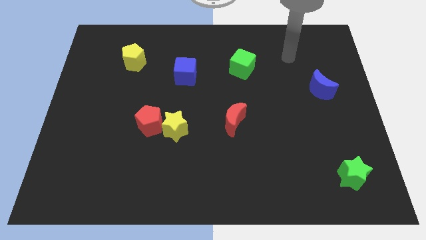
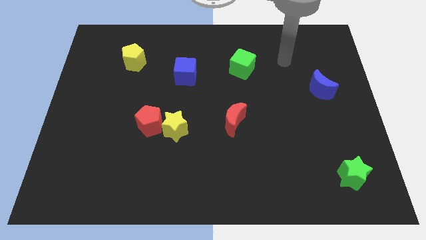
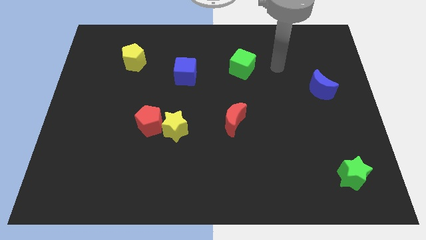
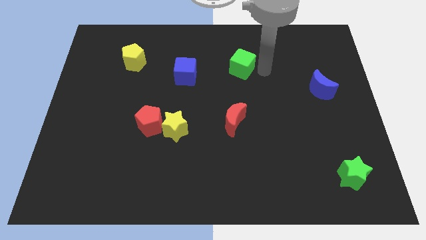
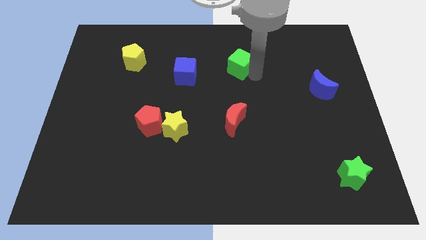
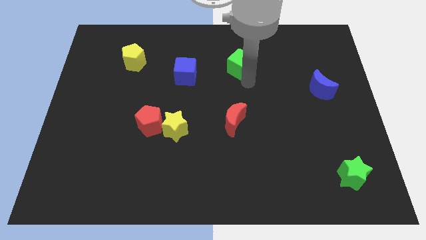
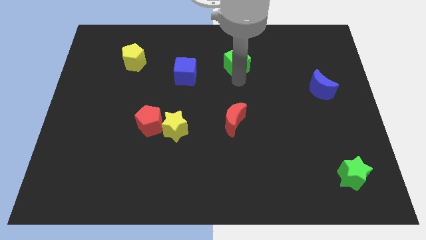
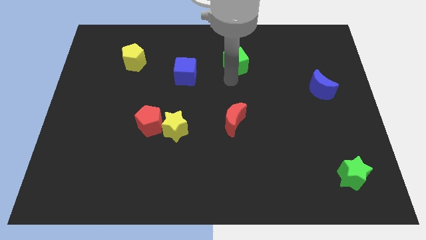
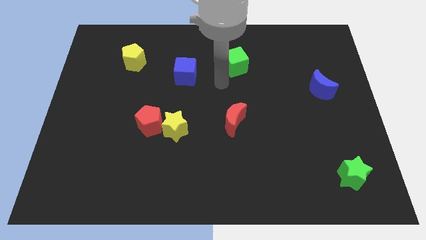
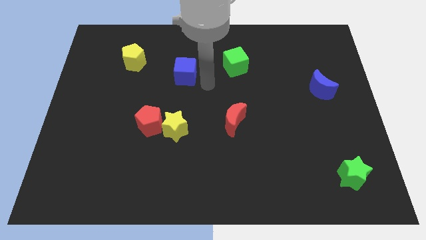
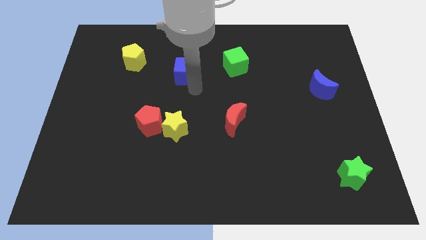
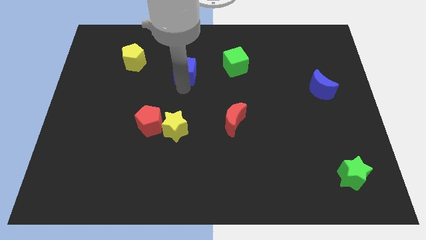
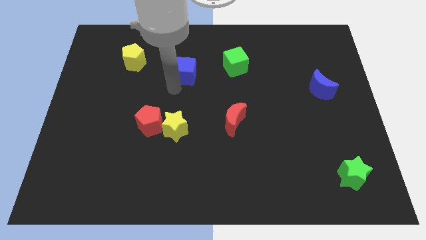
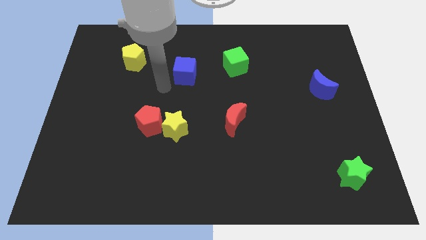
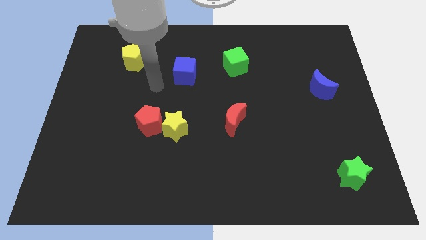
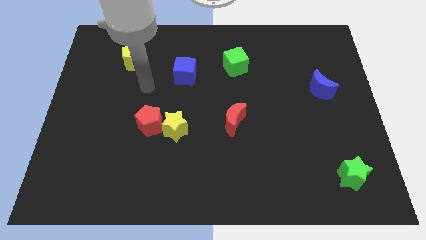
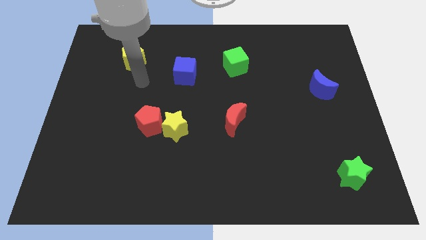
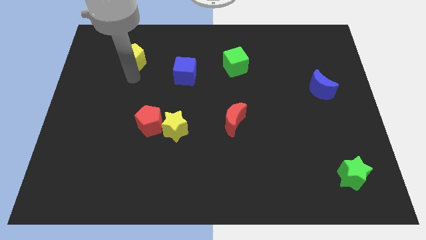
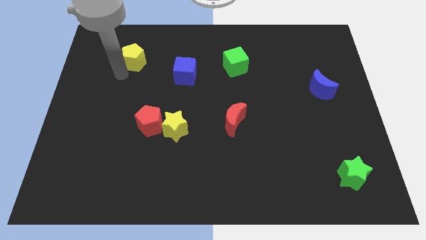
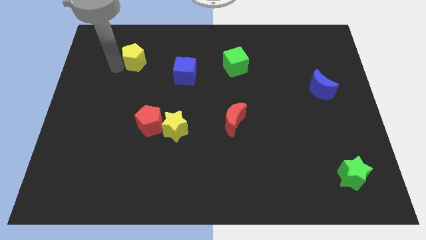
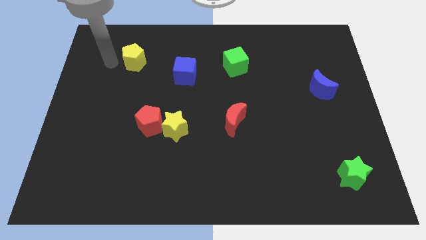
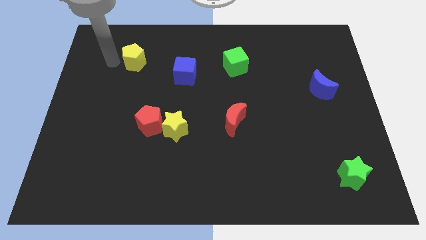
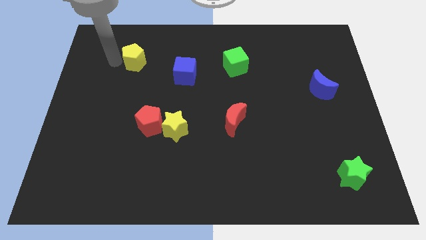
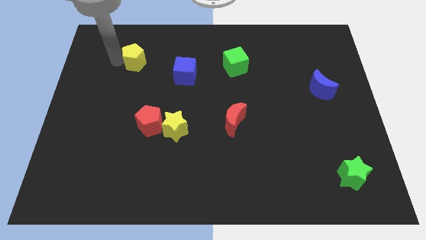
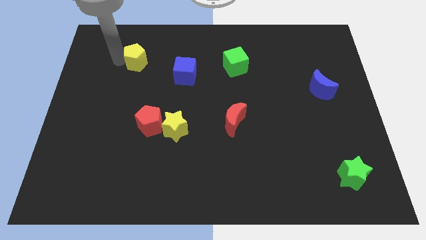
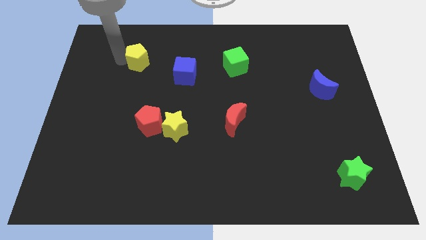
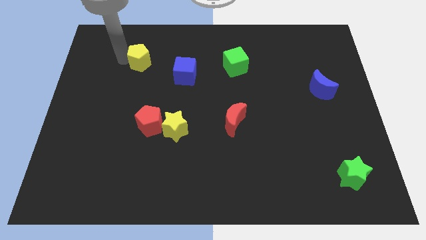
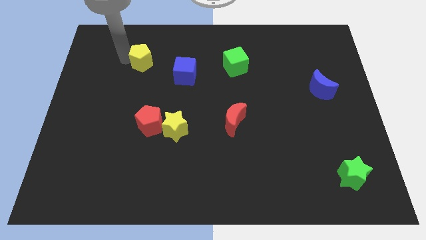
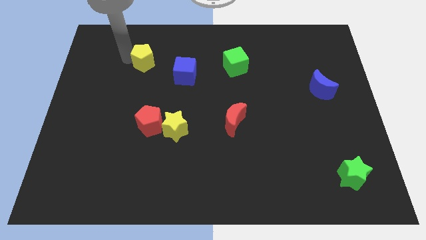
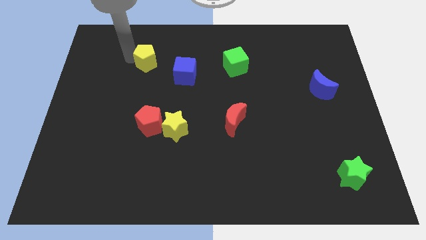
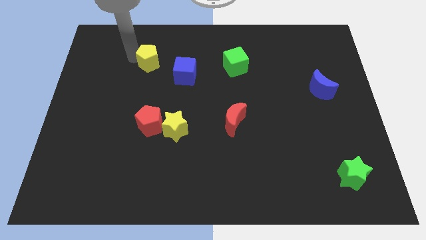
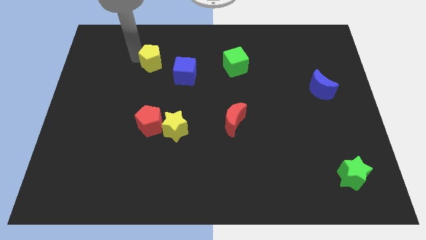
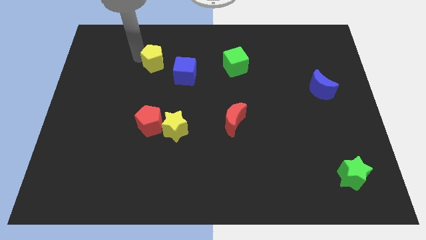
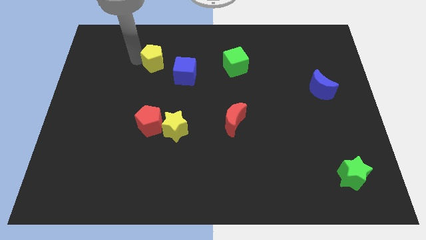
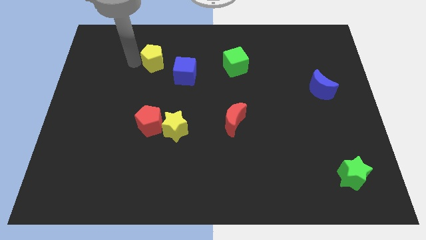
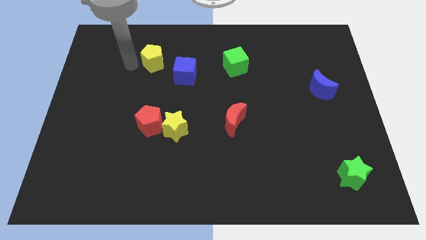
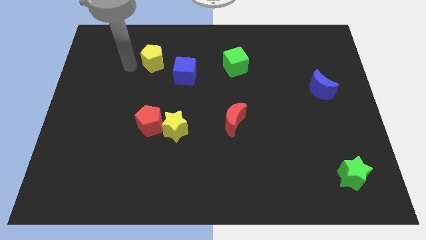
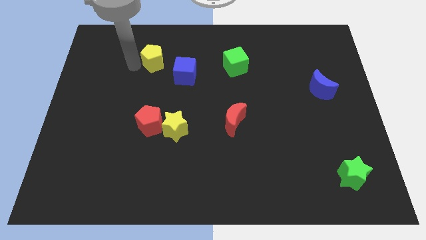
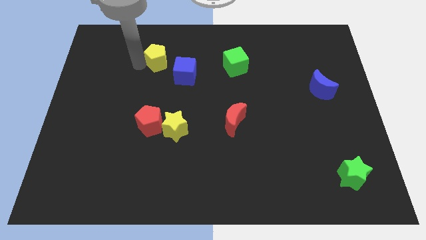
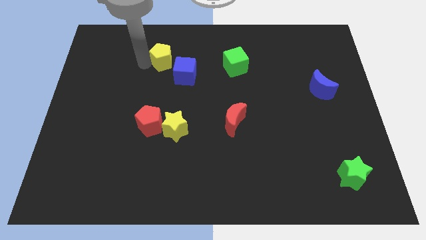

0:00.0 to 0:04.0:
slightly slide the yellow pentagon to the right

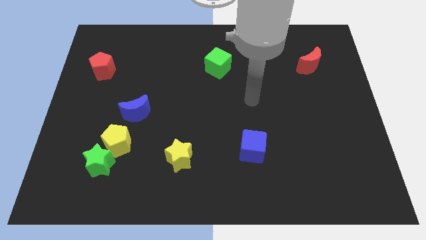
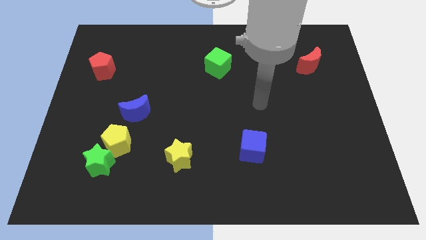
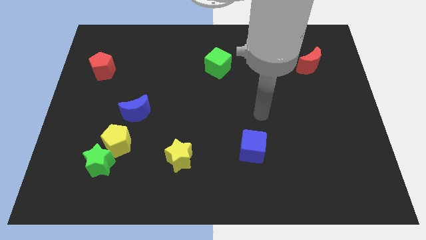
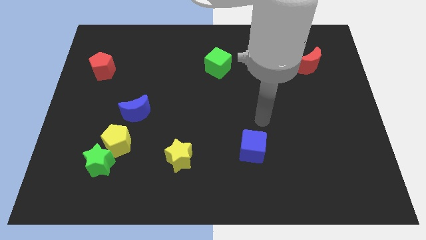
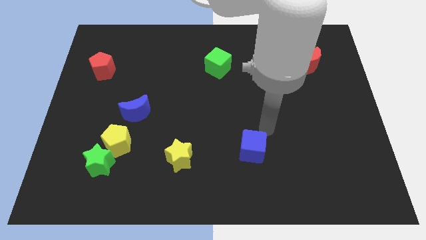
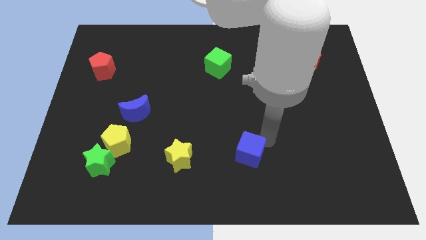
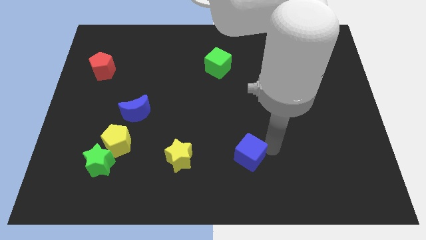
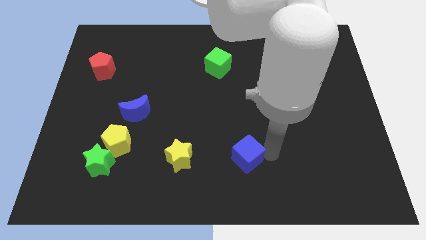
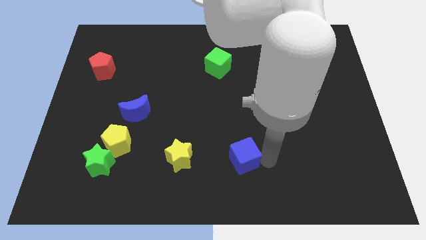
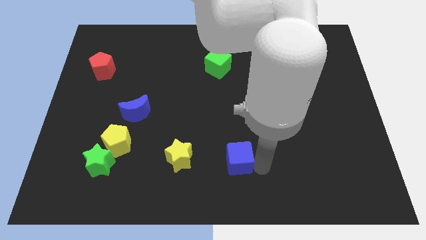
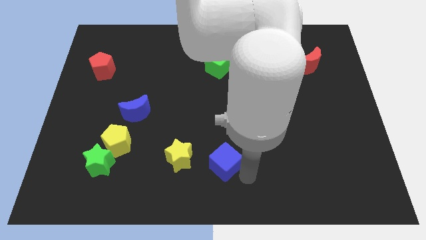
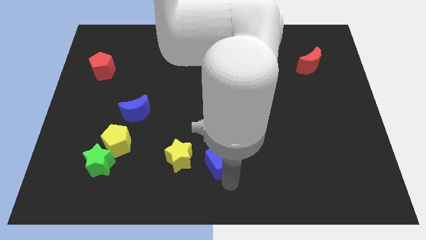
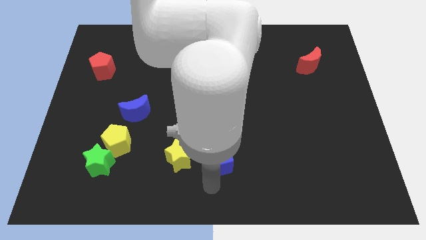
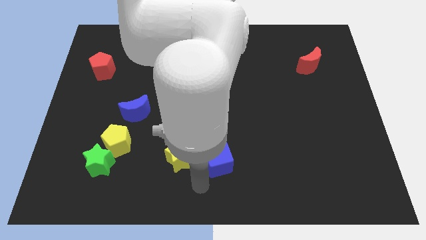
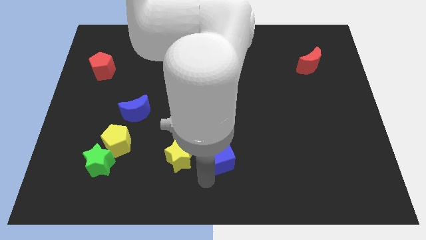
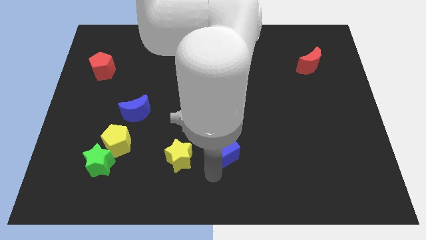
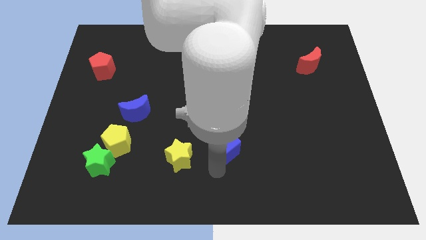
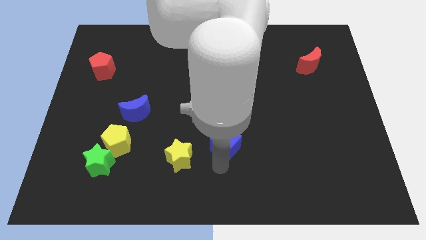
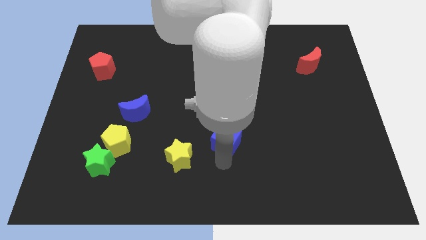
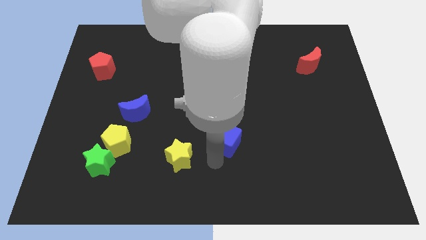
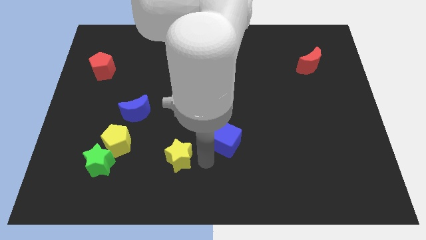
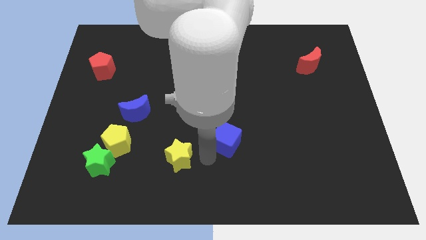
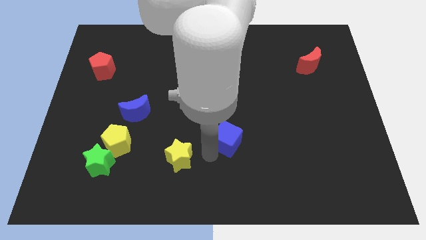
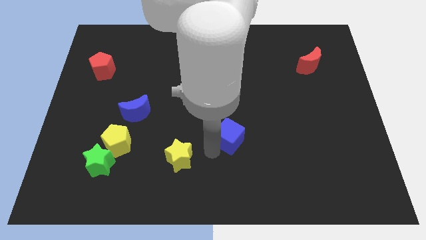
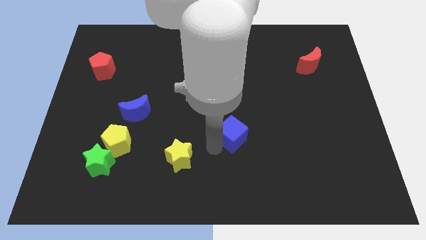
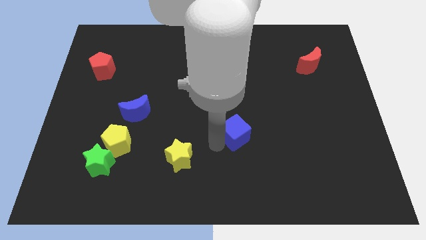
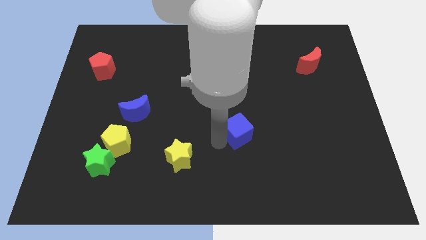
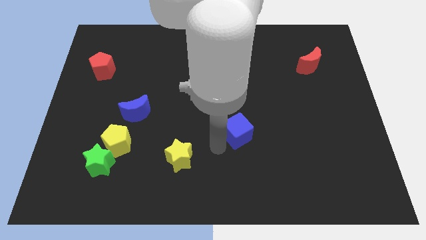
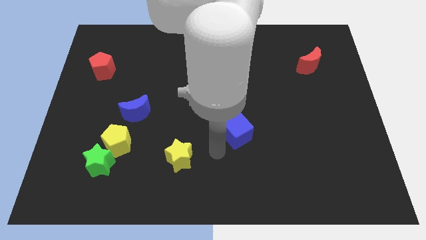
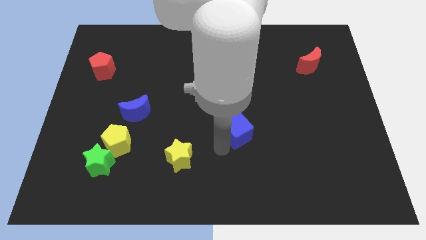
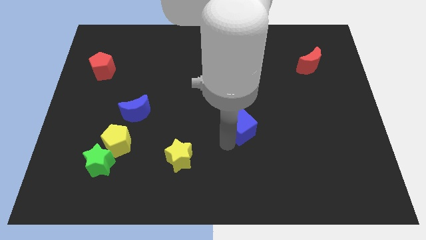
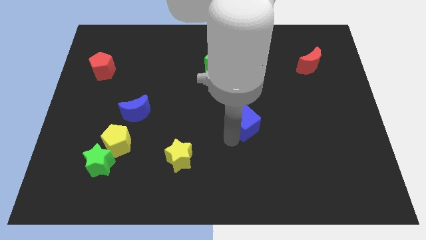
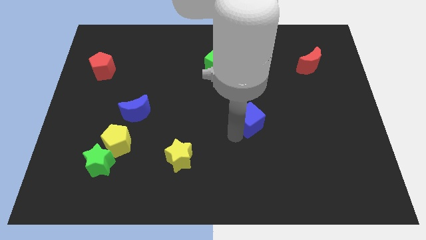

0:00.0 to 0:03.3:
move the blue cube upwards somewhat

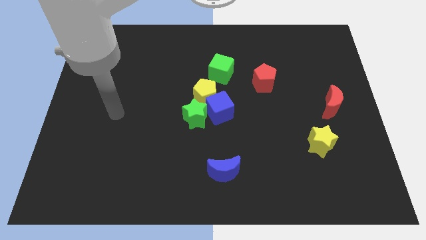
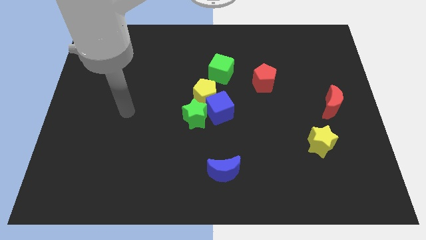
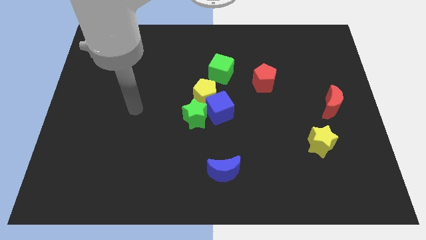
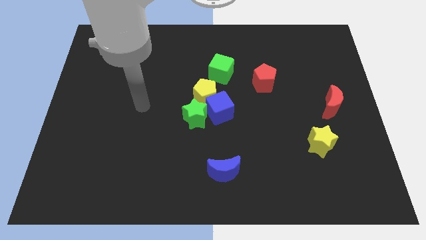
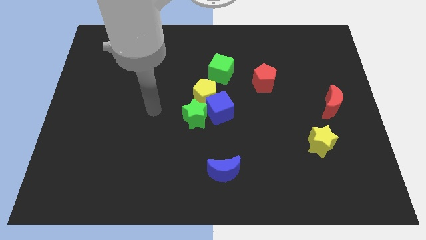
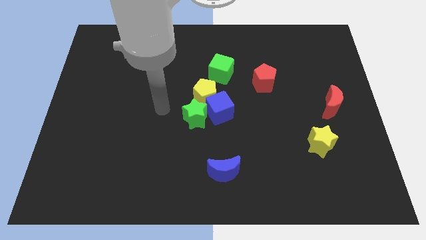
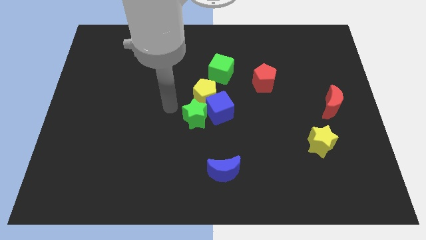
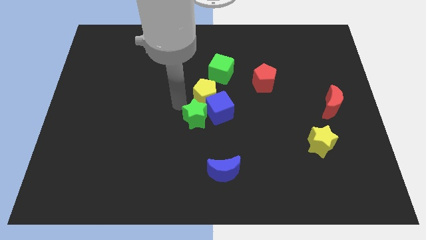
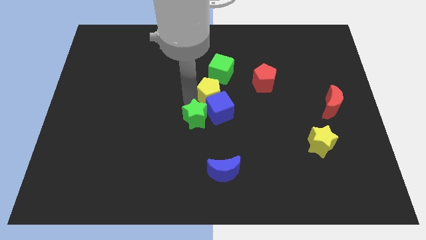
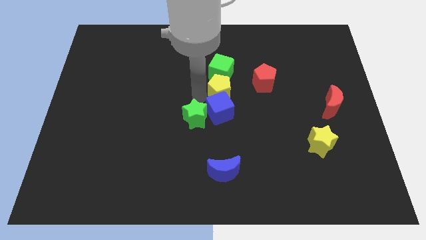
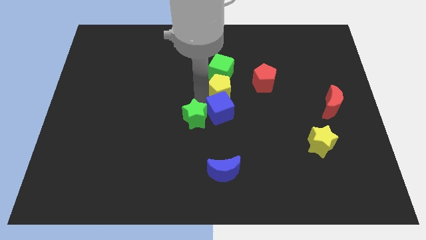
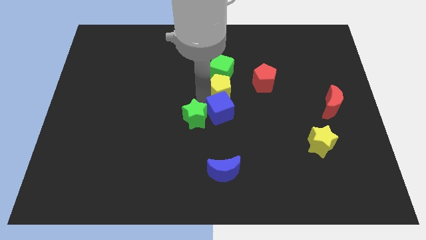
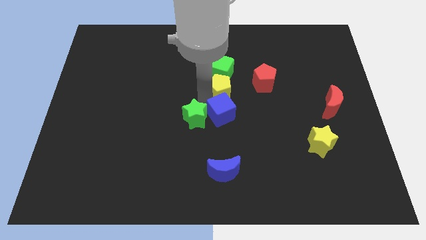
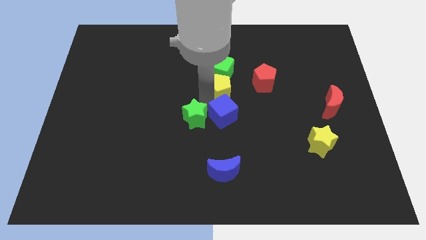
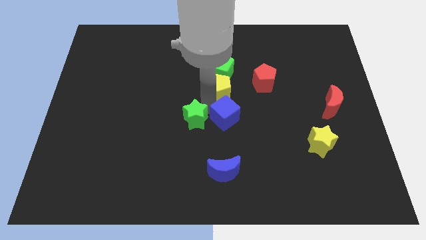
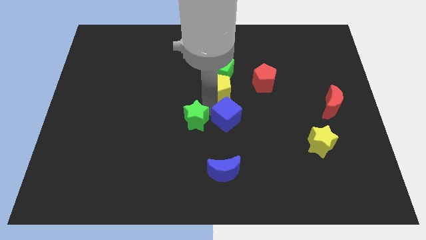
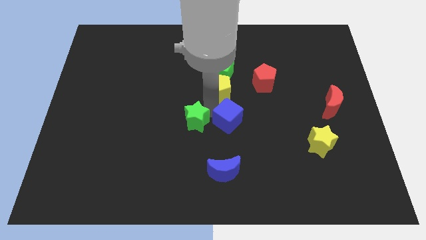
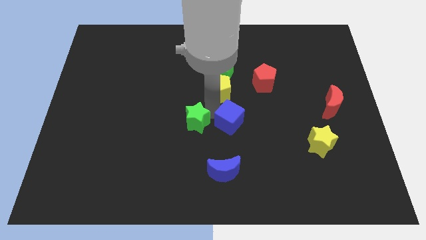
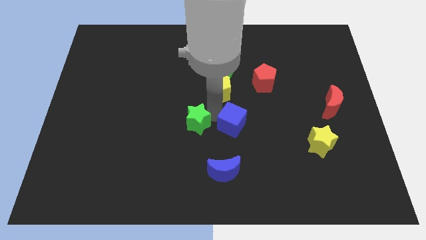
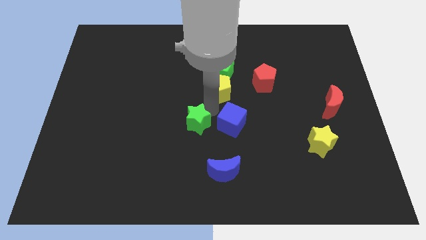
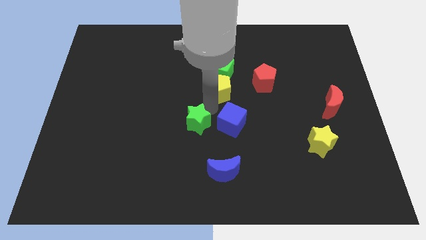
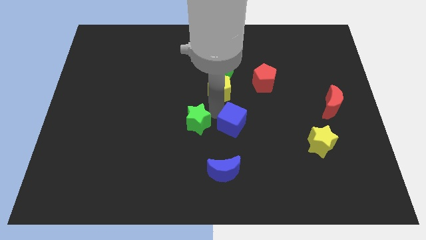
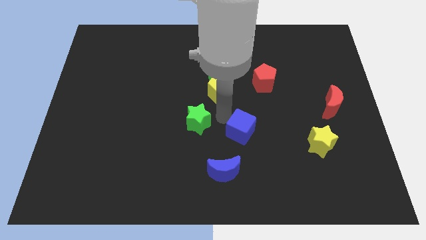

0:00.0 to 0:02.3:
push the blue cube downwards and to the right somewhat
